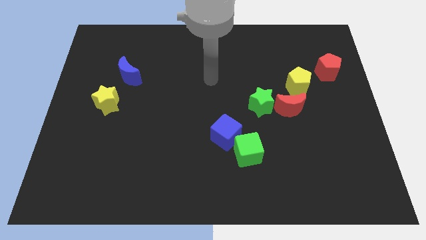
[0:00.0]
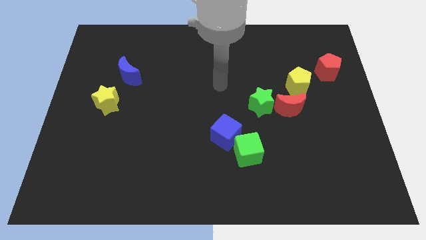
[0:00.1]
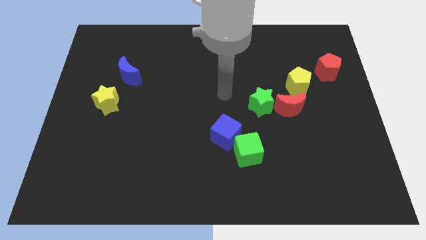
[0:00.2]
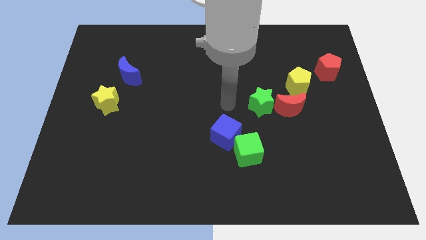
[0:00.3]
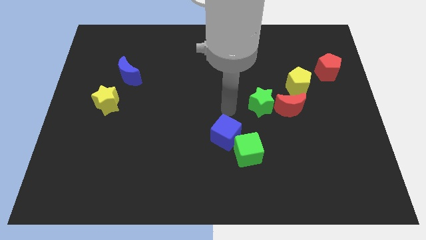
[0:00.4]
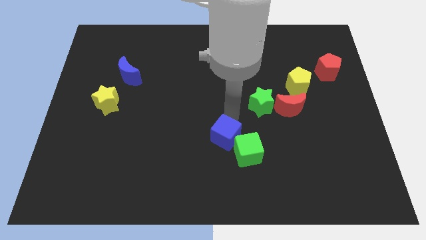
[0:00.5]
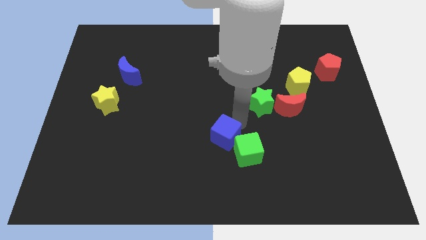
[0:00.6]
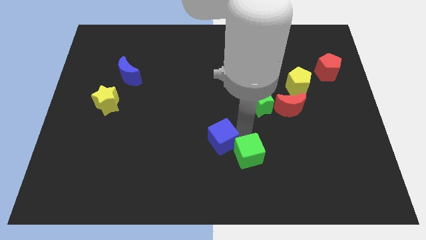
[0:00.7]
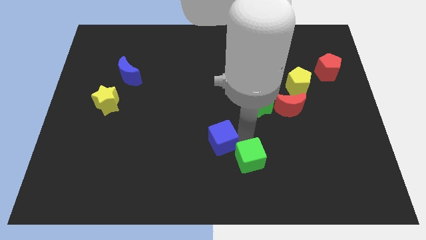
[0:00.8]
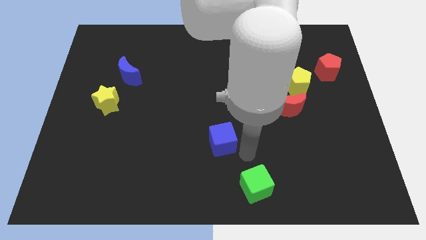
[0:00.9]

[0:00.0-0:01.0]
pull the blue cube apart from the green cube

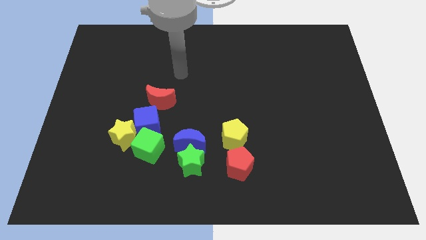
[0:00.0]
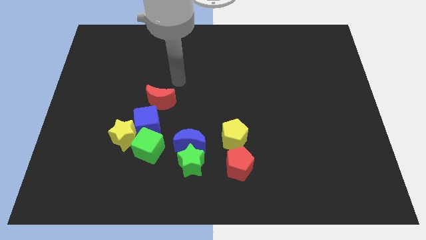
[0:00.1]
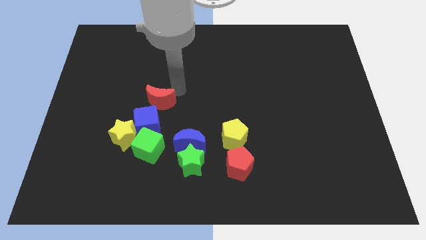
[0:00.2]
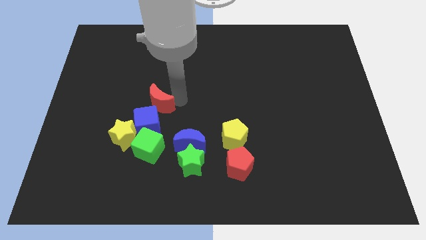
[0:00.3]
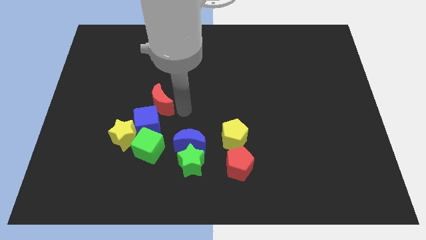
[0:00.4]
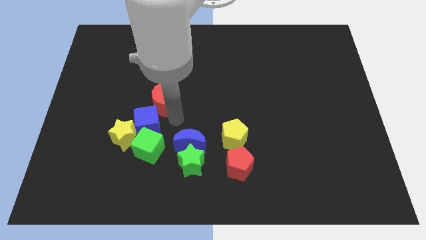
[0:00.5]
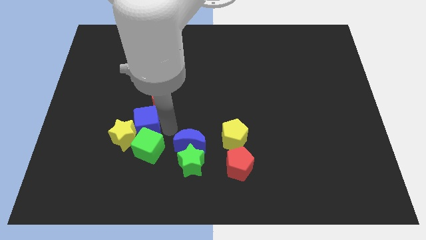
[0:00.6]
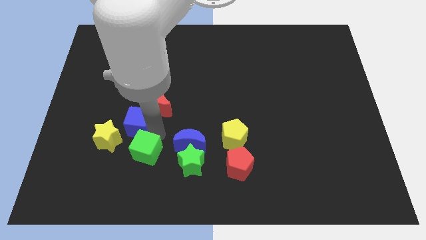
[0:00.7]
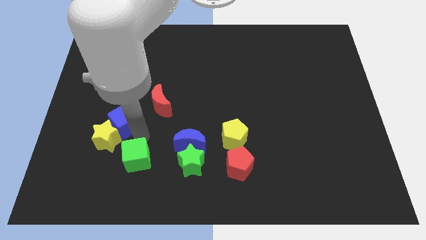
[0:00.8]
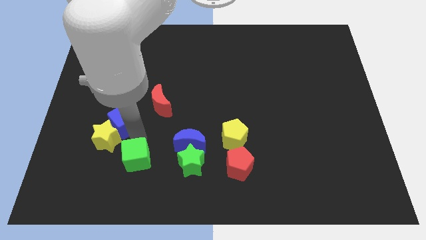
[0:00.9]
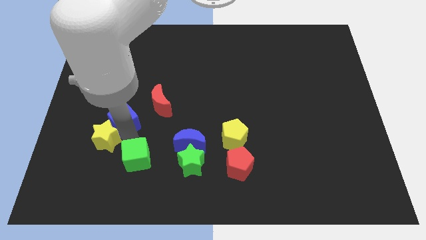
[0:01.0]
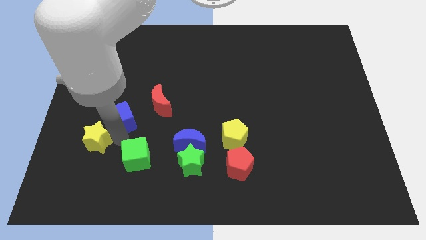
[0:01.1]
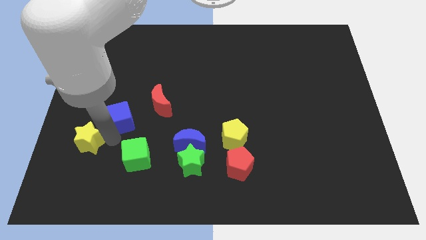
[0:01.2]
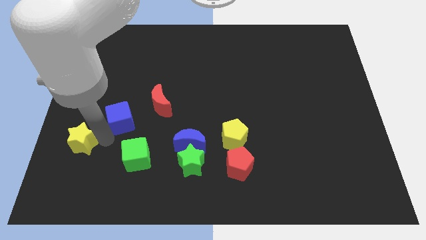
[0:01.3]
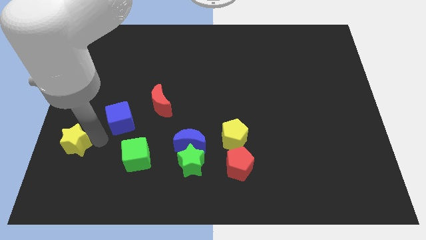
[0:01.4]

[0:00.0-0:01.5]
separate the yellow star from the blue cube and green cube

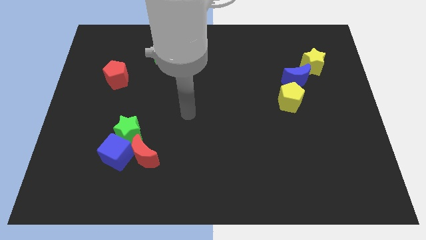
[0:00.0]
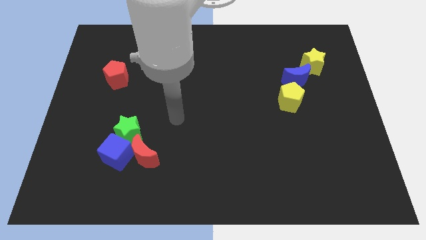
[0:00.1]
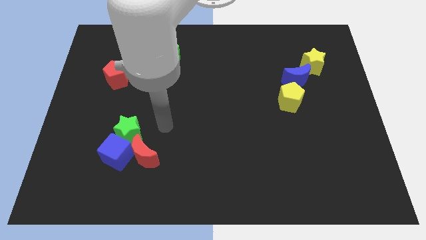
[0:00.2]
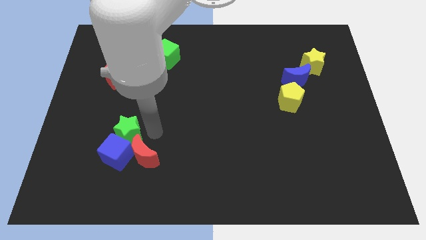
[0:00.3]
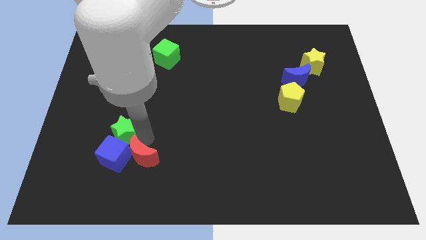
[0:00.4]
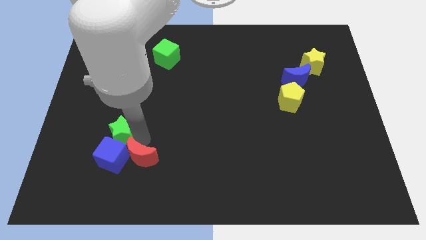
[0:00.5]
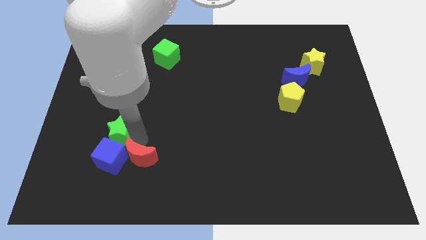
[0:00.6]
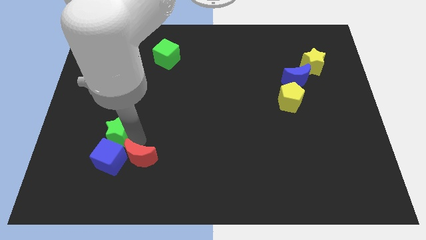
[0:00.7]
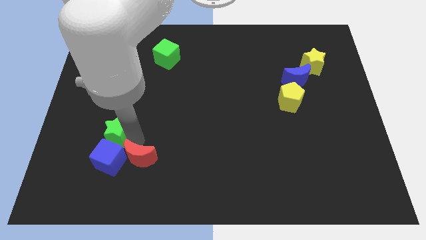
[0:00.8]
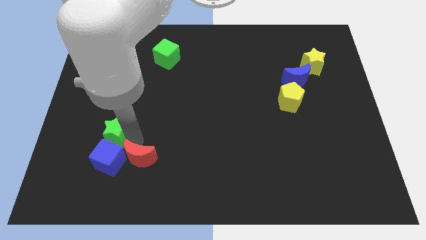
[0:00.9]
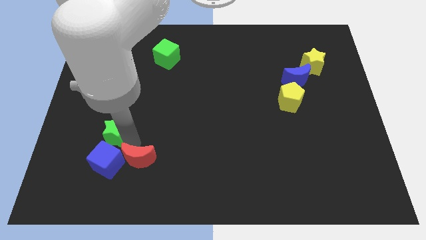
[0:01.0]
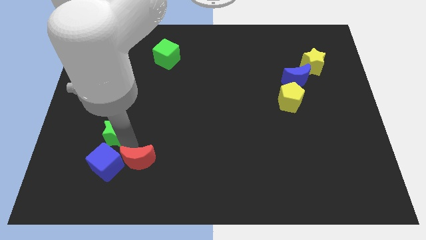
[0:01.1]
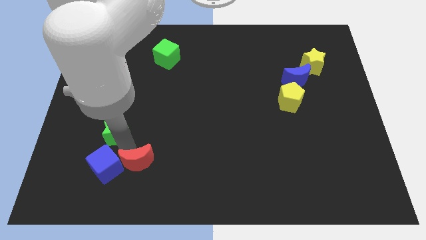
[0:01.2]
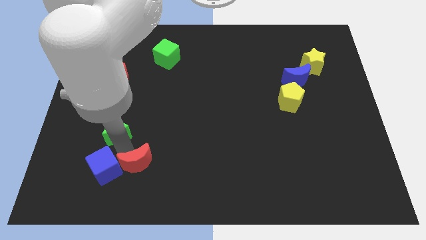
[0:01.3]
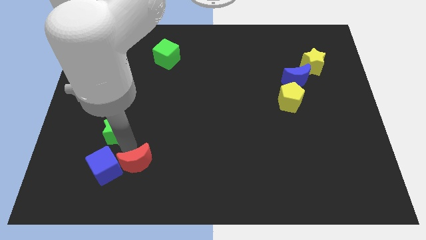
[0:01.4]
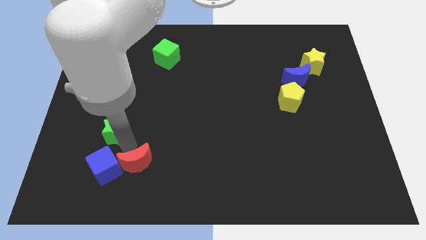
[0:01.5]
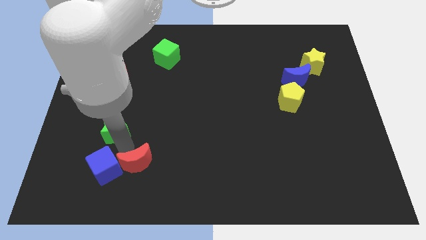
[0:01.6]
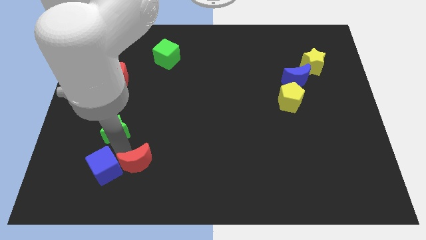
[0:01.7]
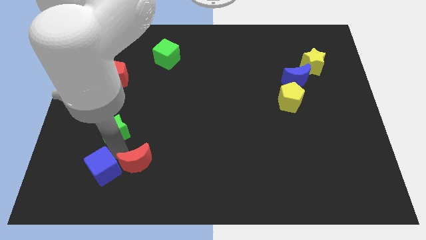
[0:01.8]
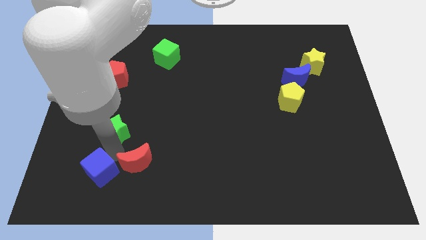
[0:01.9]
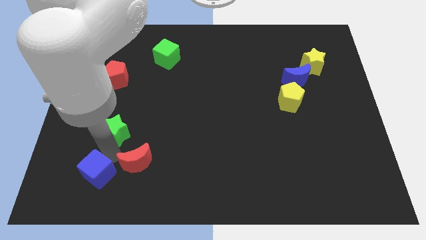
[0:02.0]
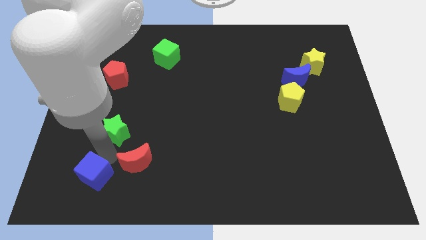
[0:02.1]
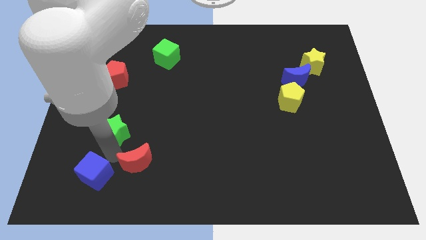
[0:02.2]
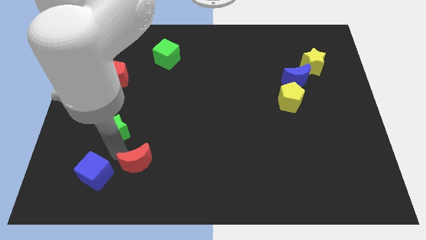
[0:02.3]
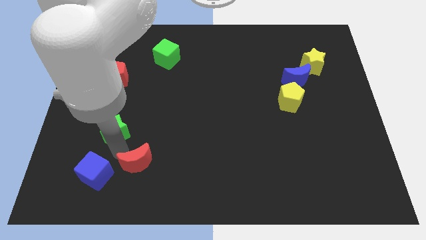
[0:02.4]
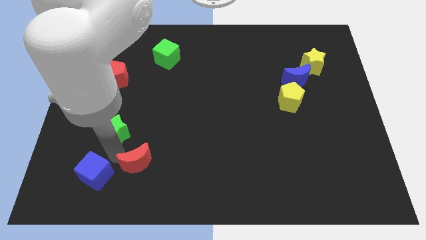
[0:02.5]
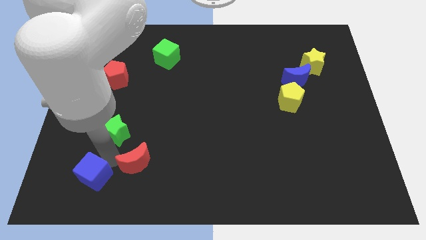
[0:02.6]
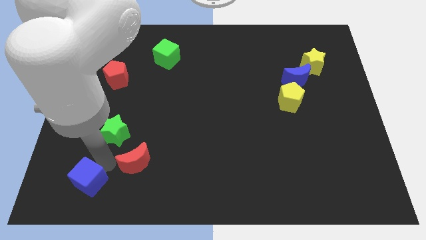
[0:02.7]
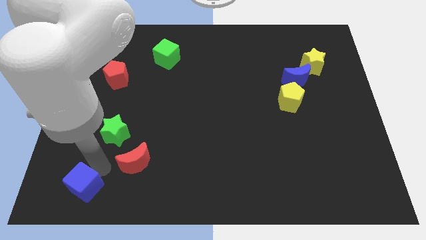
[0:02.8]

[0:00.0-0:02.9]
move the blue cube away from the green star and red moon

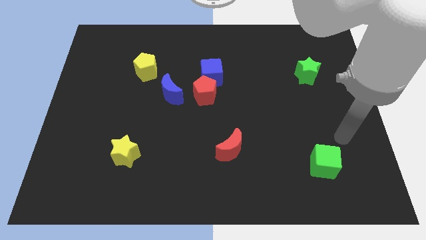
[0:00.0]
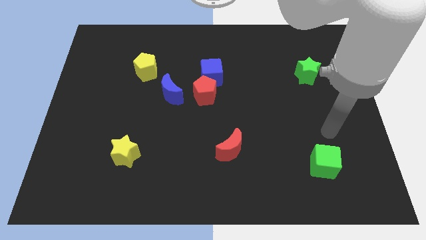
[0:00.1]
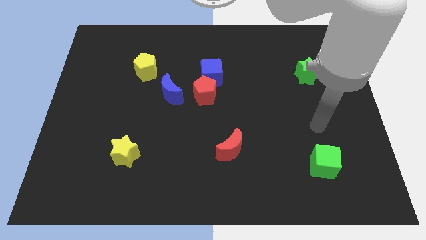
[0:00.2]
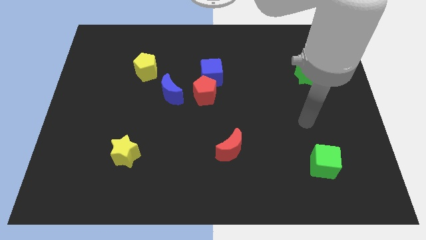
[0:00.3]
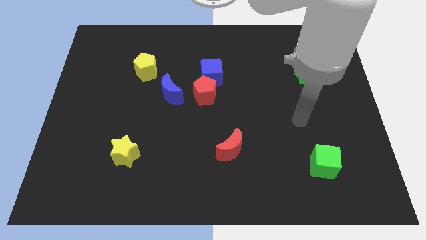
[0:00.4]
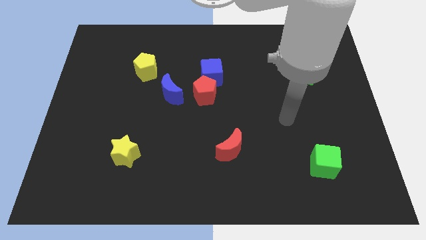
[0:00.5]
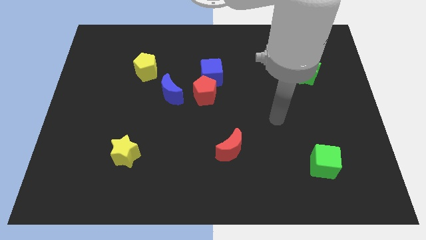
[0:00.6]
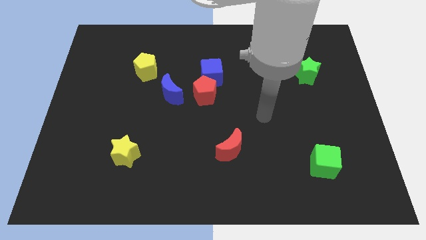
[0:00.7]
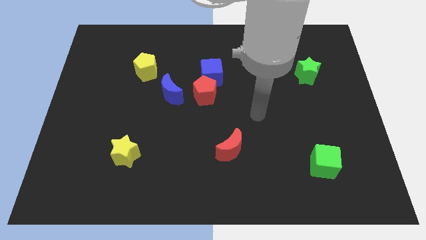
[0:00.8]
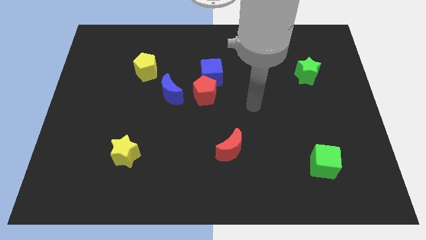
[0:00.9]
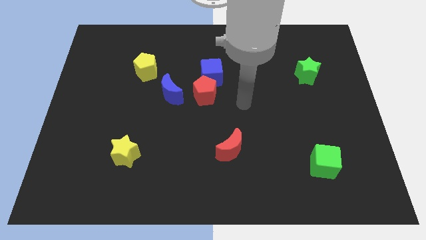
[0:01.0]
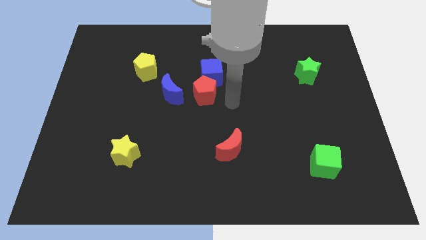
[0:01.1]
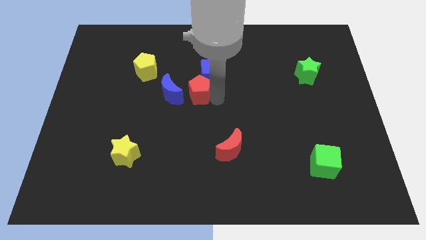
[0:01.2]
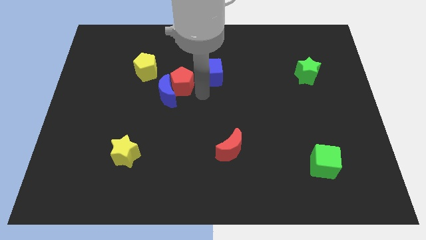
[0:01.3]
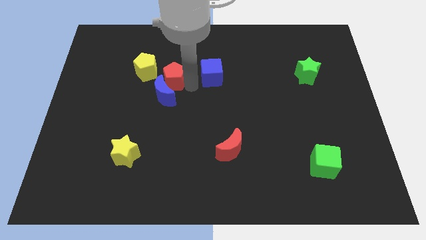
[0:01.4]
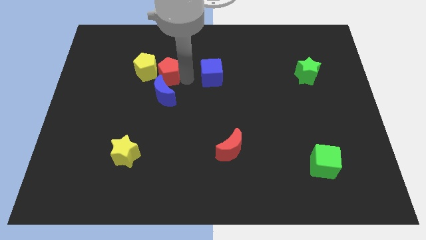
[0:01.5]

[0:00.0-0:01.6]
separate the blue cube from the red pentagon

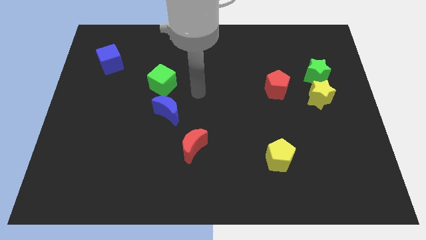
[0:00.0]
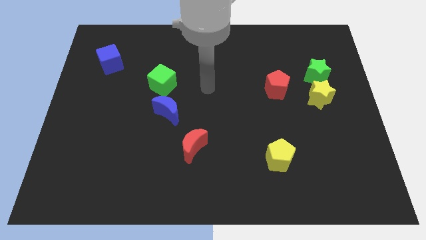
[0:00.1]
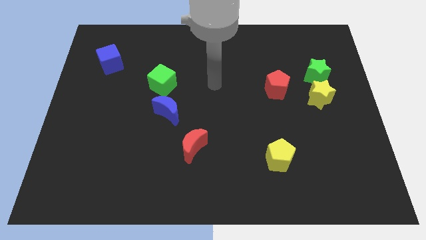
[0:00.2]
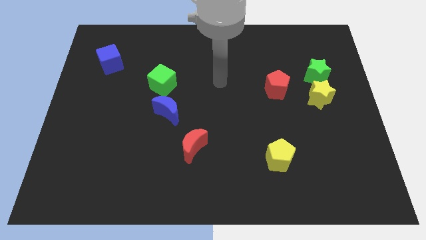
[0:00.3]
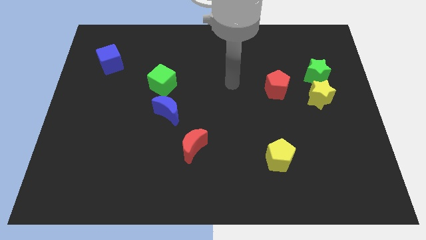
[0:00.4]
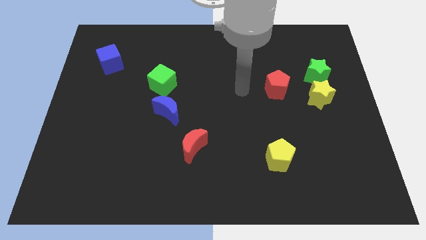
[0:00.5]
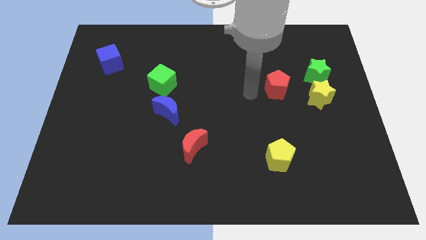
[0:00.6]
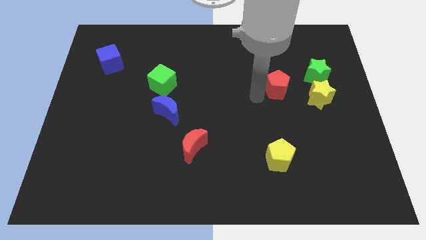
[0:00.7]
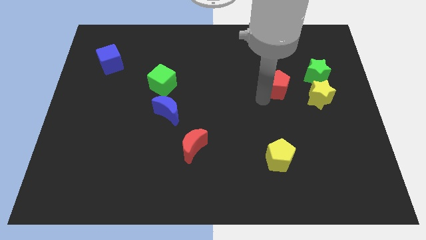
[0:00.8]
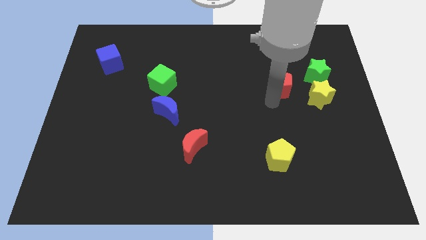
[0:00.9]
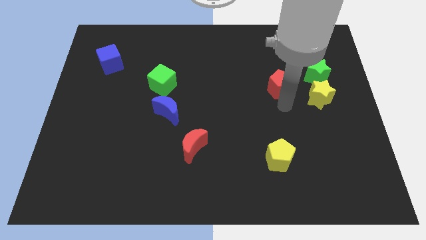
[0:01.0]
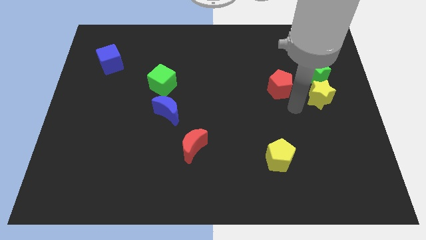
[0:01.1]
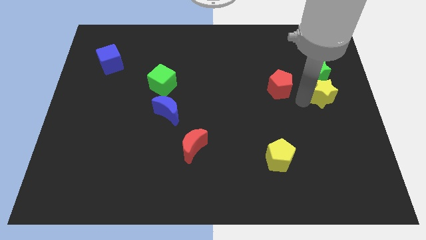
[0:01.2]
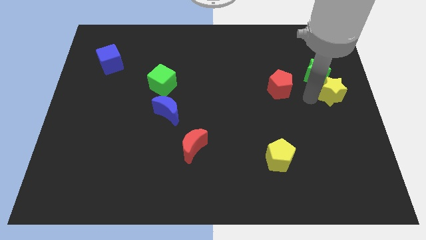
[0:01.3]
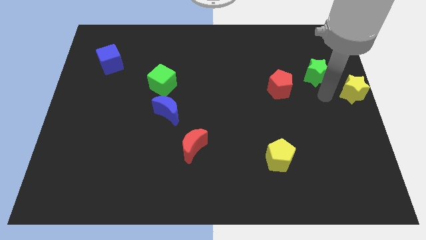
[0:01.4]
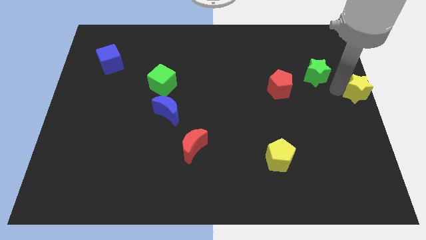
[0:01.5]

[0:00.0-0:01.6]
move the green star away from the yellow star

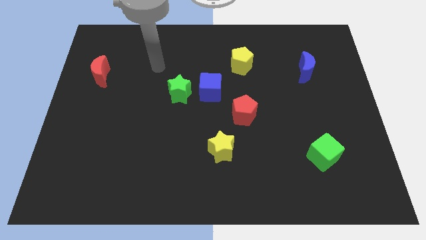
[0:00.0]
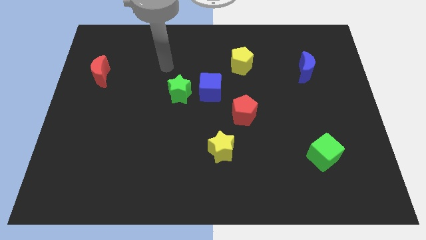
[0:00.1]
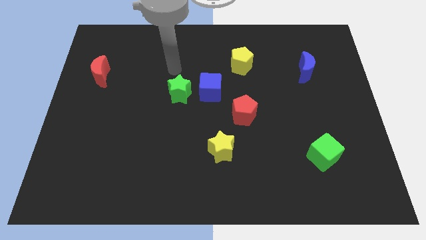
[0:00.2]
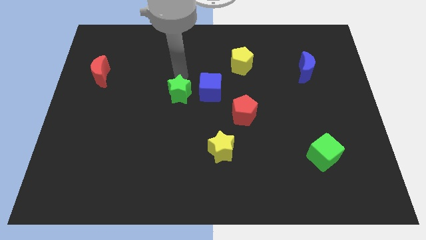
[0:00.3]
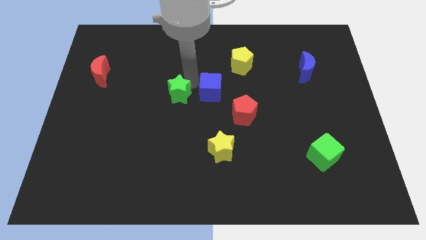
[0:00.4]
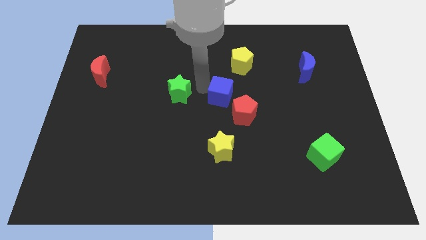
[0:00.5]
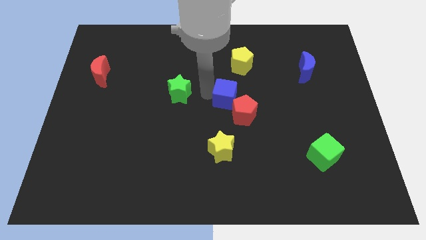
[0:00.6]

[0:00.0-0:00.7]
move the green star away from the blue cube
